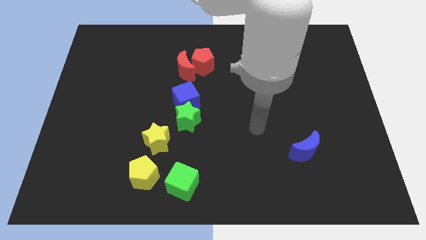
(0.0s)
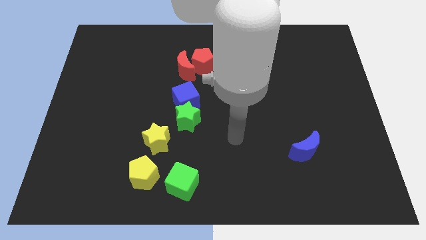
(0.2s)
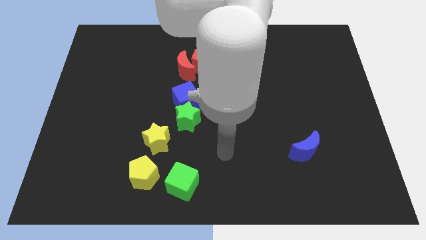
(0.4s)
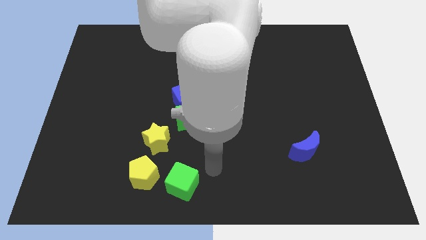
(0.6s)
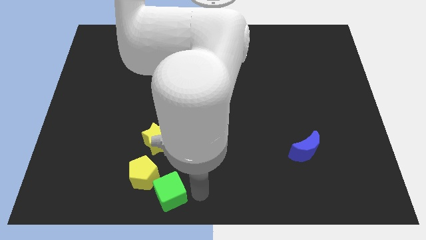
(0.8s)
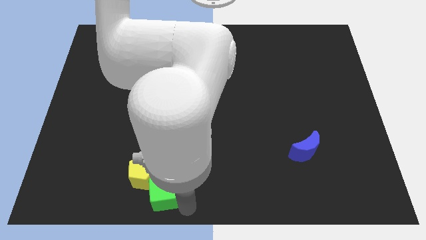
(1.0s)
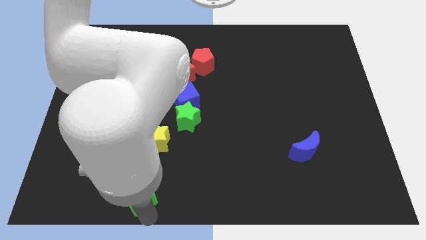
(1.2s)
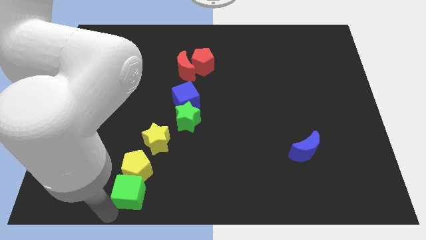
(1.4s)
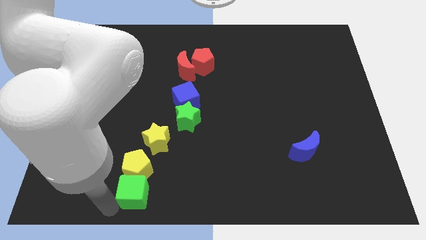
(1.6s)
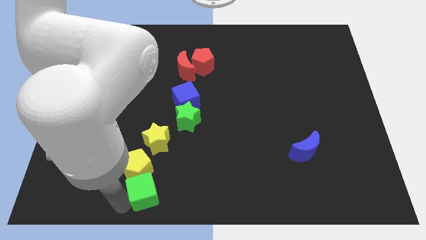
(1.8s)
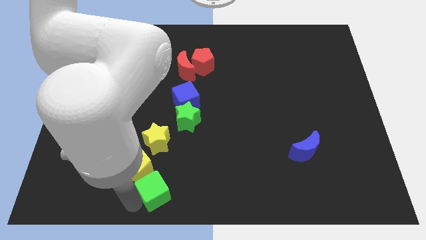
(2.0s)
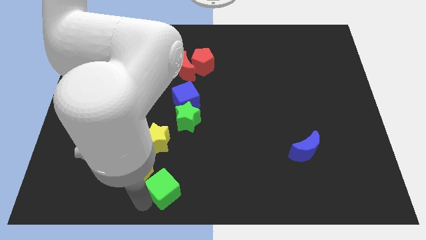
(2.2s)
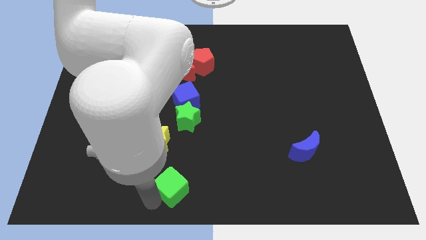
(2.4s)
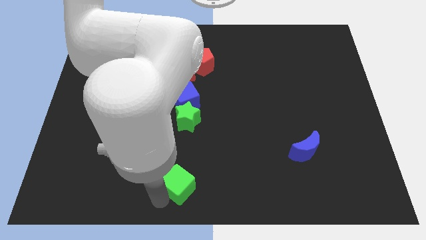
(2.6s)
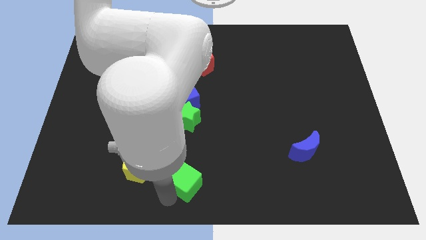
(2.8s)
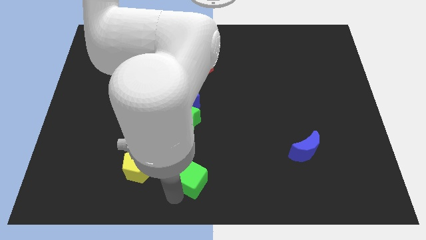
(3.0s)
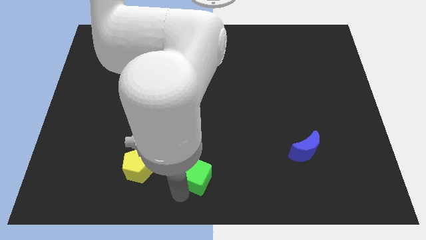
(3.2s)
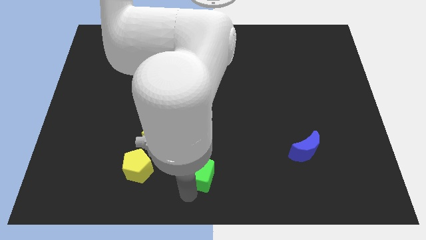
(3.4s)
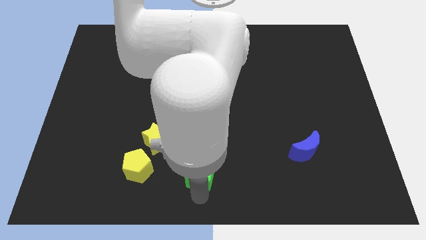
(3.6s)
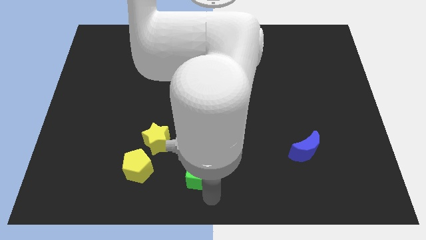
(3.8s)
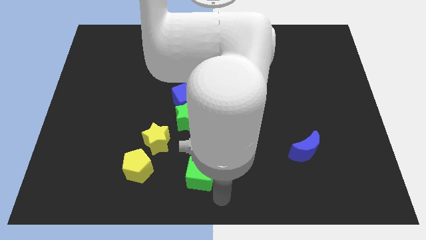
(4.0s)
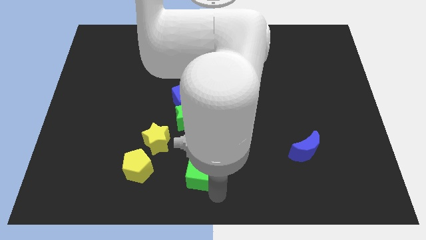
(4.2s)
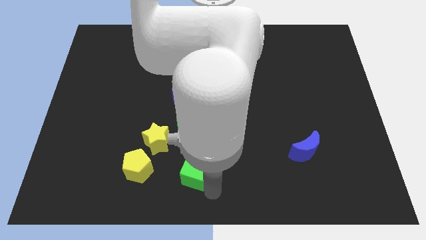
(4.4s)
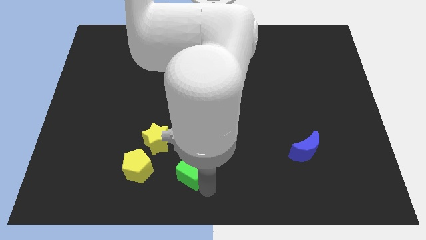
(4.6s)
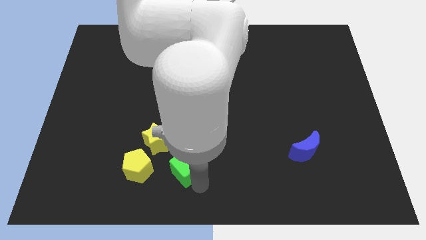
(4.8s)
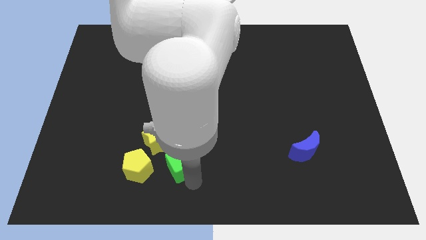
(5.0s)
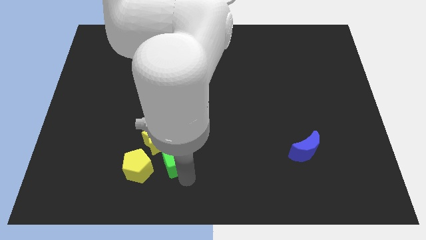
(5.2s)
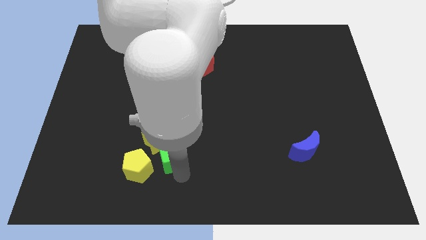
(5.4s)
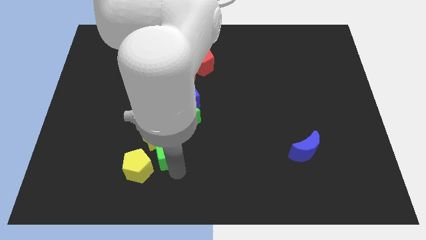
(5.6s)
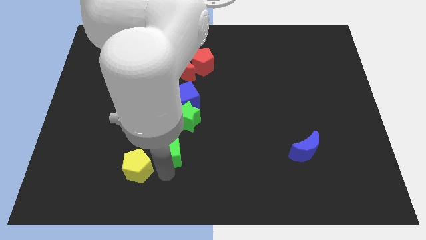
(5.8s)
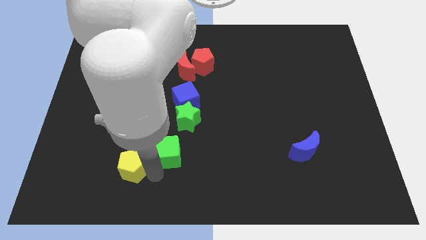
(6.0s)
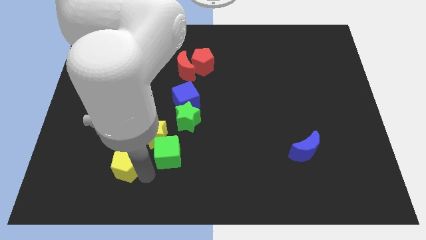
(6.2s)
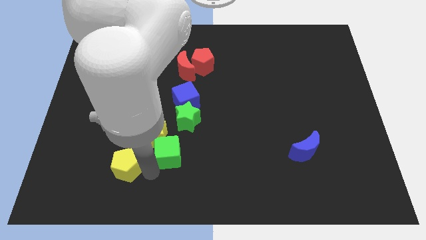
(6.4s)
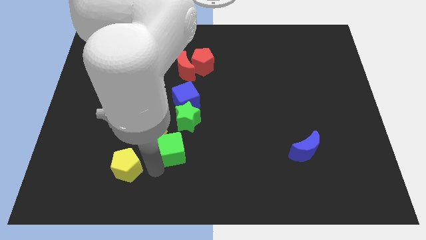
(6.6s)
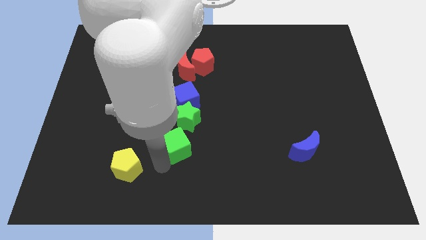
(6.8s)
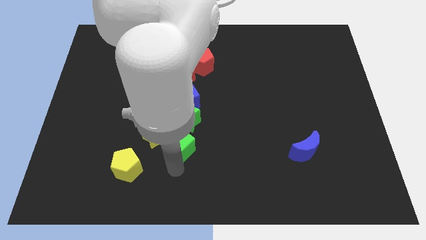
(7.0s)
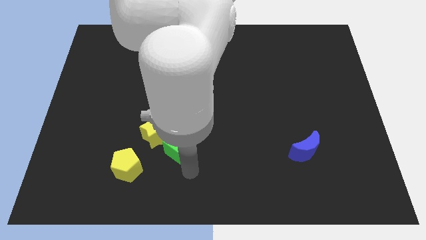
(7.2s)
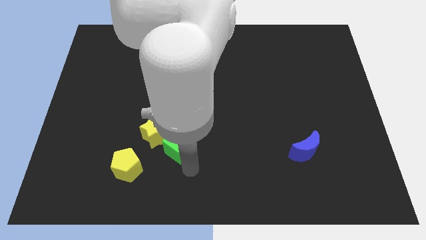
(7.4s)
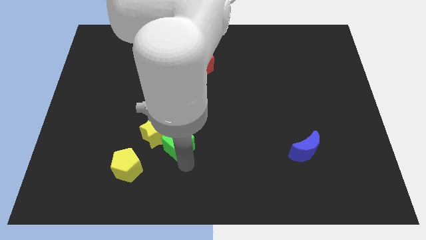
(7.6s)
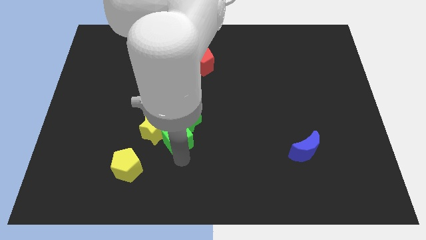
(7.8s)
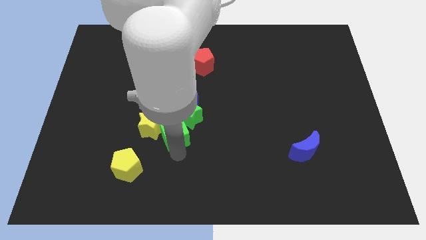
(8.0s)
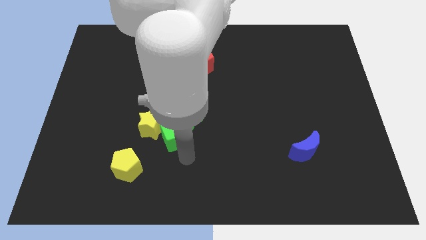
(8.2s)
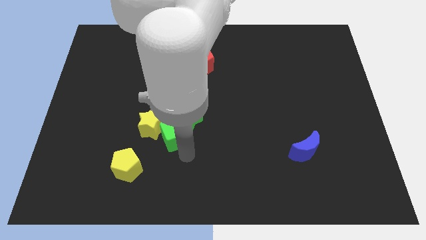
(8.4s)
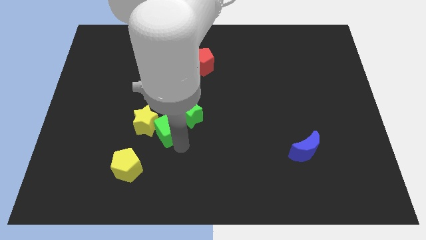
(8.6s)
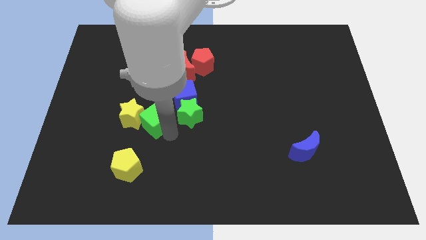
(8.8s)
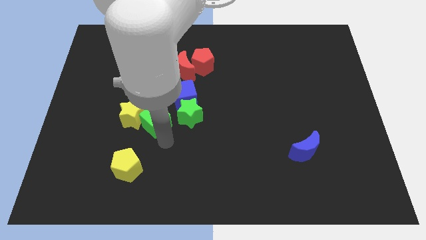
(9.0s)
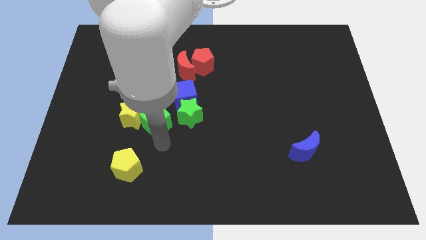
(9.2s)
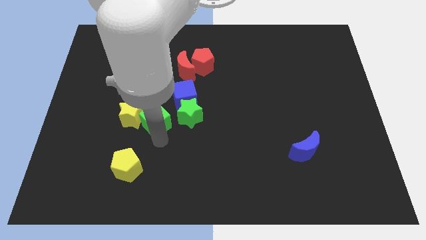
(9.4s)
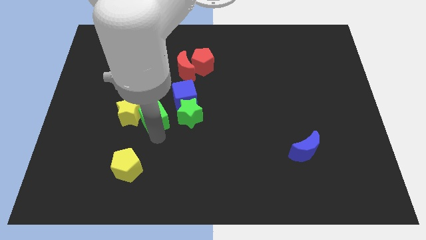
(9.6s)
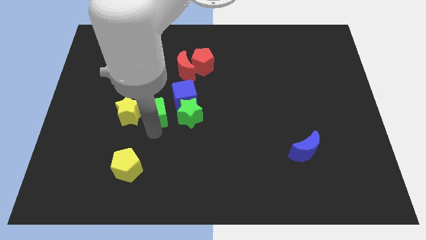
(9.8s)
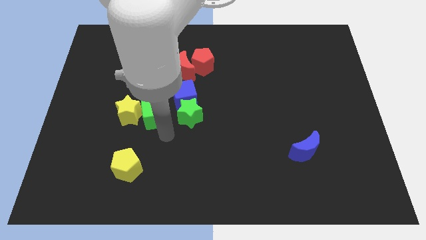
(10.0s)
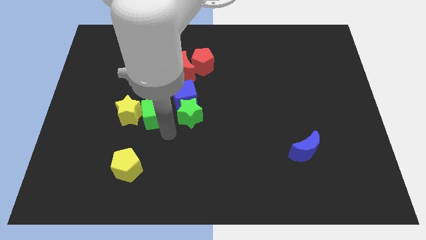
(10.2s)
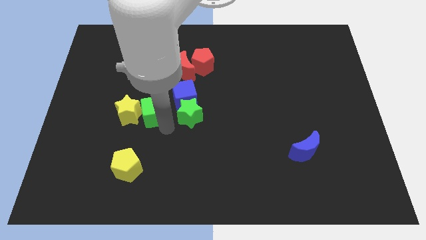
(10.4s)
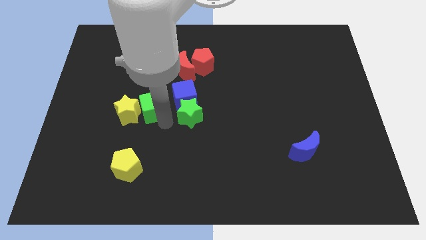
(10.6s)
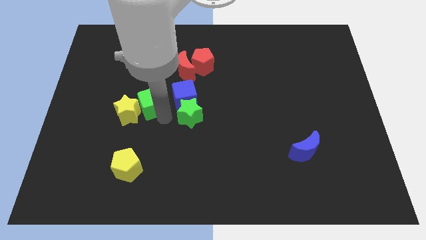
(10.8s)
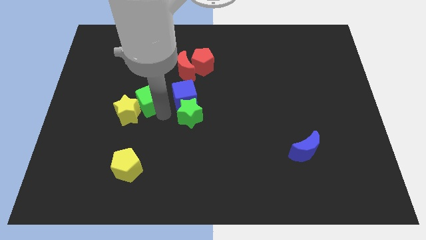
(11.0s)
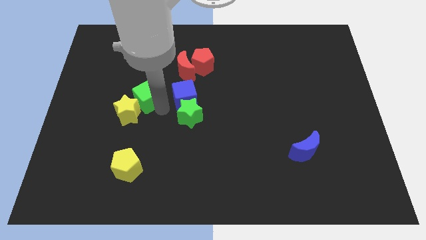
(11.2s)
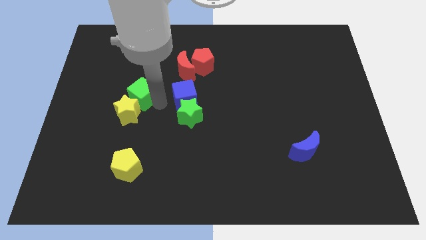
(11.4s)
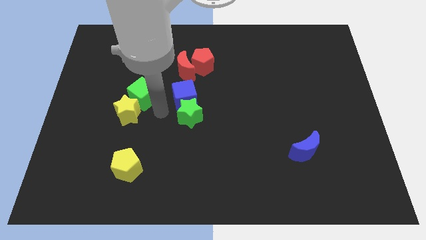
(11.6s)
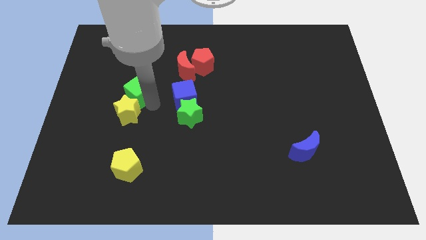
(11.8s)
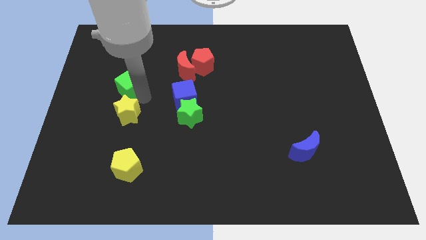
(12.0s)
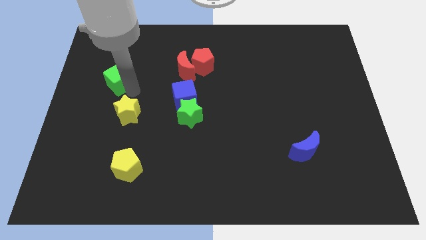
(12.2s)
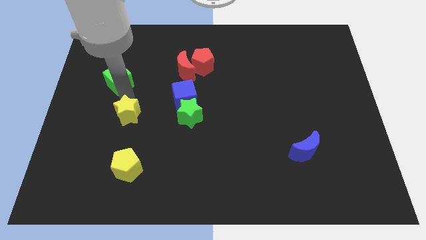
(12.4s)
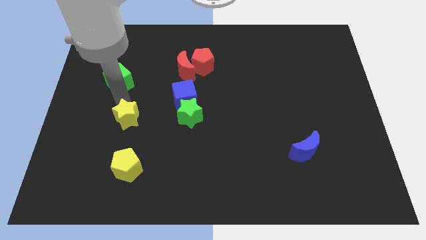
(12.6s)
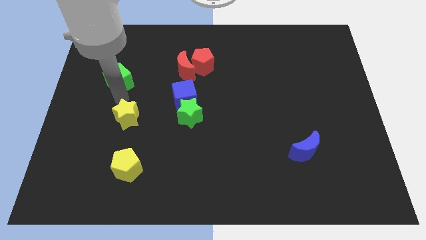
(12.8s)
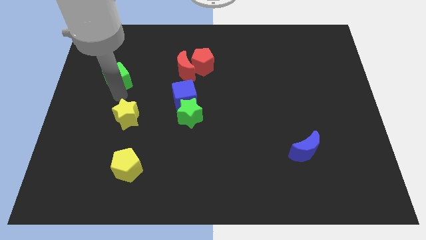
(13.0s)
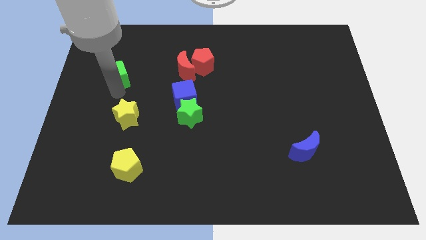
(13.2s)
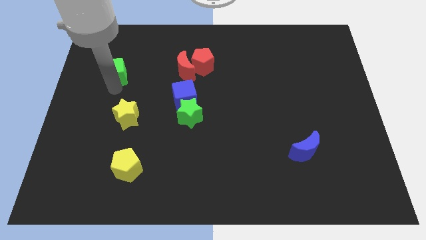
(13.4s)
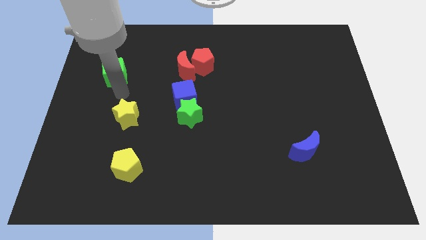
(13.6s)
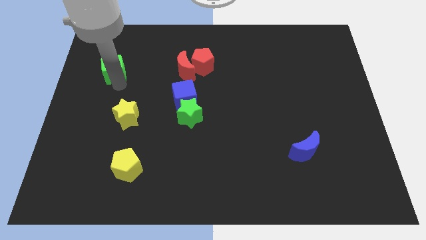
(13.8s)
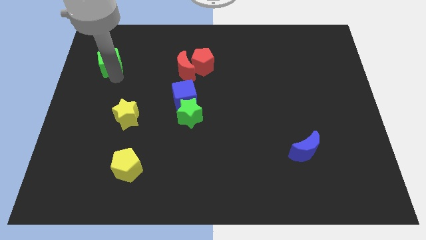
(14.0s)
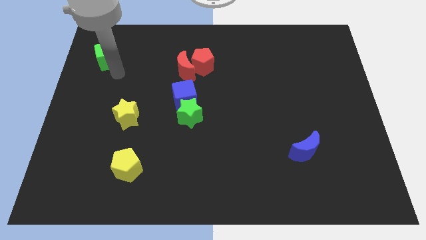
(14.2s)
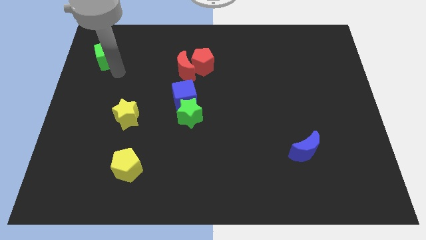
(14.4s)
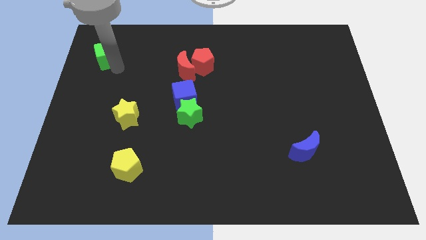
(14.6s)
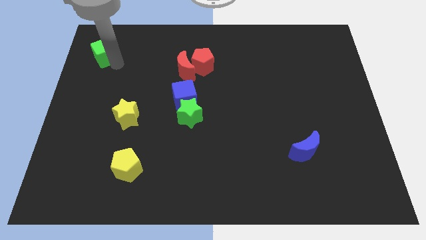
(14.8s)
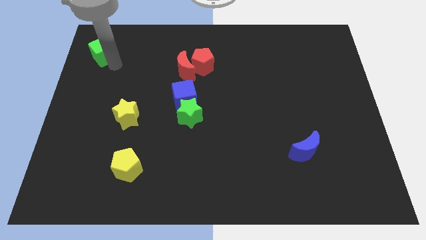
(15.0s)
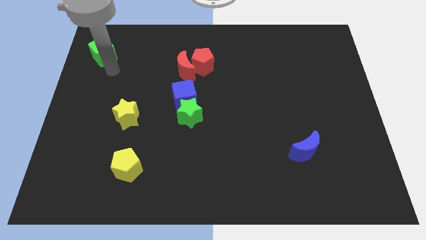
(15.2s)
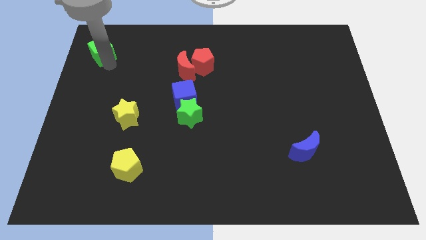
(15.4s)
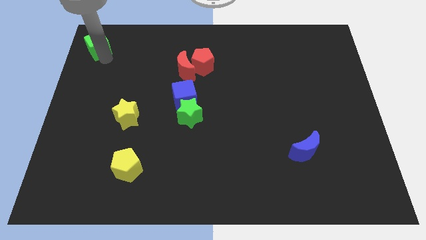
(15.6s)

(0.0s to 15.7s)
slide the green cube to the upper left corner
